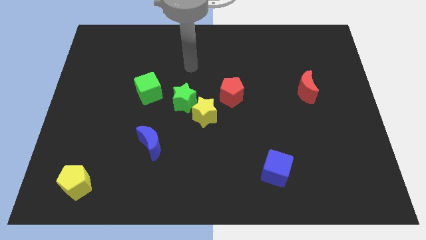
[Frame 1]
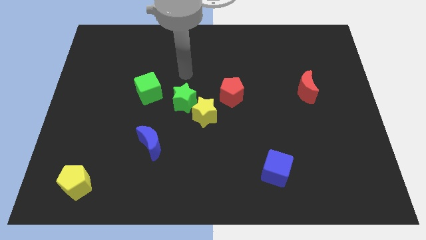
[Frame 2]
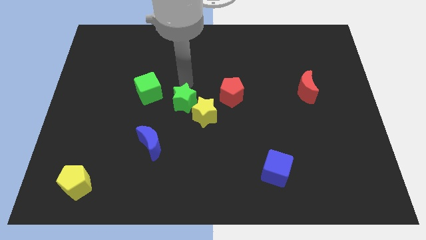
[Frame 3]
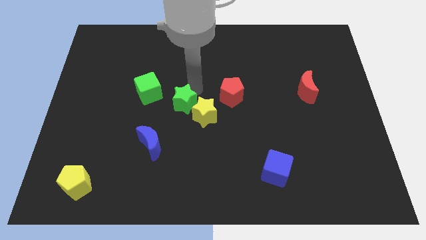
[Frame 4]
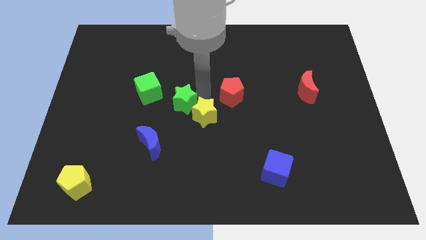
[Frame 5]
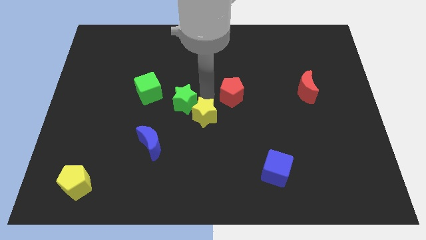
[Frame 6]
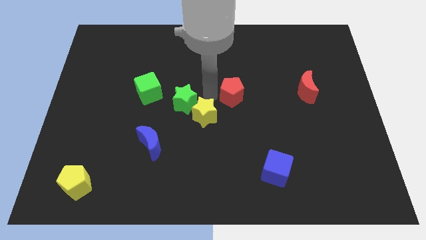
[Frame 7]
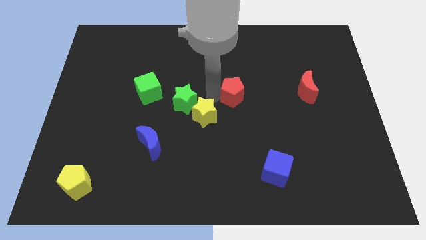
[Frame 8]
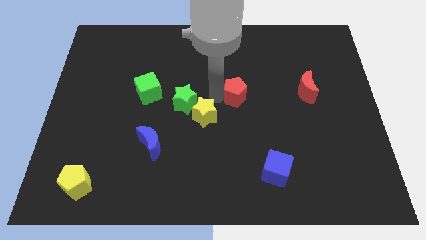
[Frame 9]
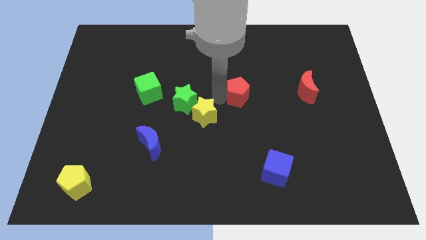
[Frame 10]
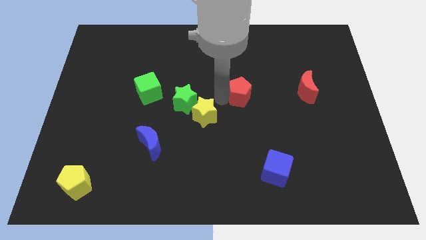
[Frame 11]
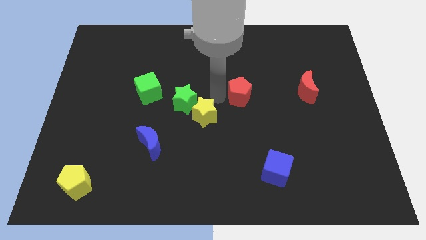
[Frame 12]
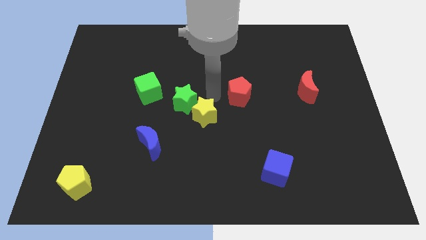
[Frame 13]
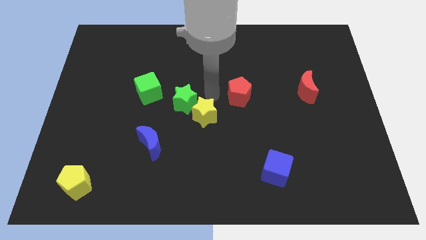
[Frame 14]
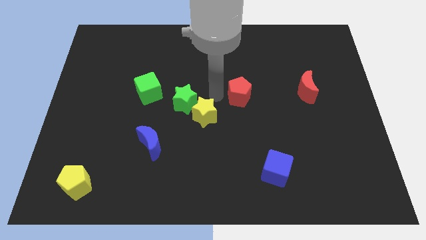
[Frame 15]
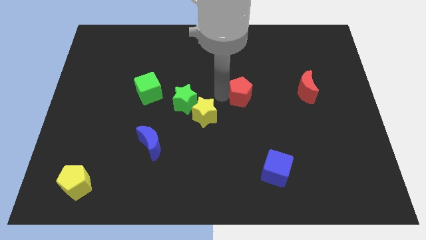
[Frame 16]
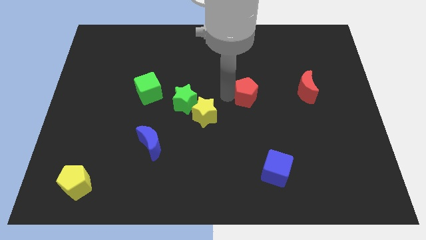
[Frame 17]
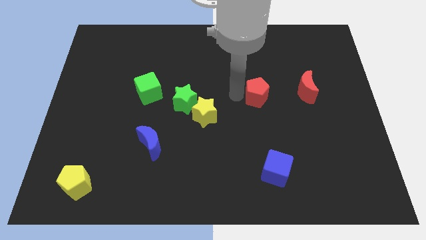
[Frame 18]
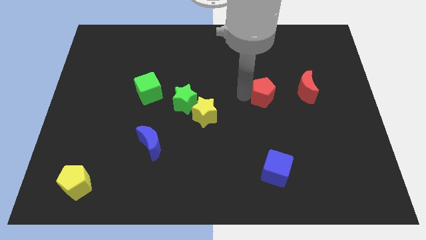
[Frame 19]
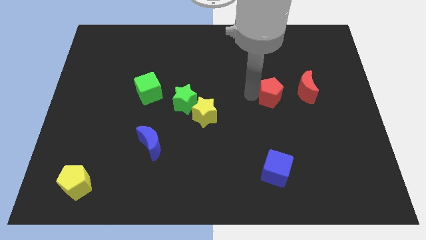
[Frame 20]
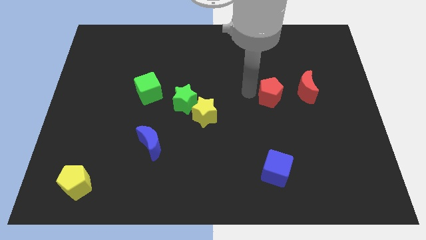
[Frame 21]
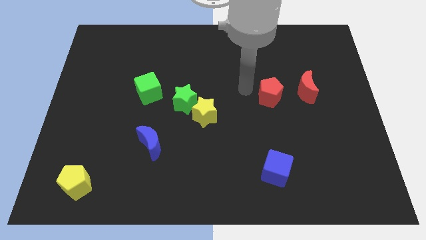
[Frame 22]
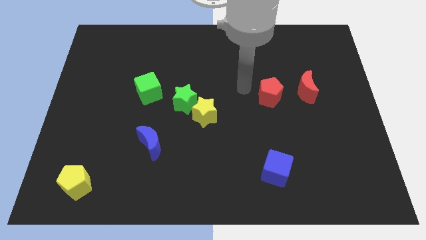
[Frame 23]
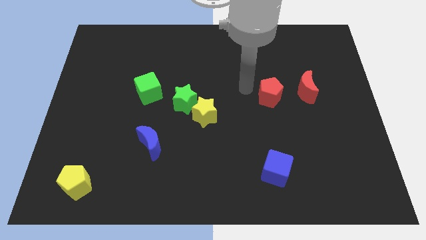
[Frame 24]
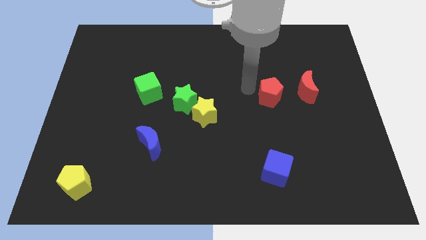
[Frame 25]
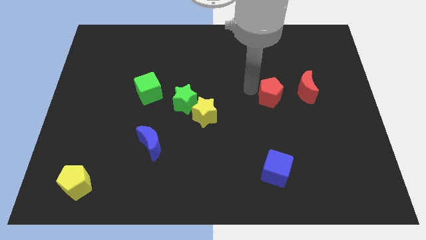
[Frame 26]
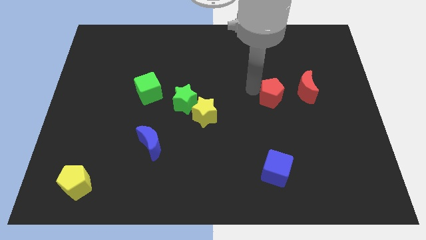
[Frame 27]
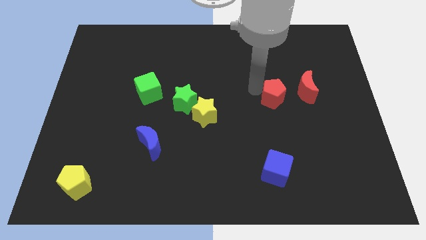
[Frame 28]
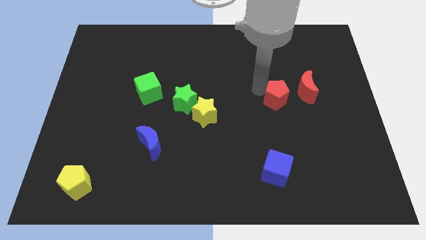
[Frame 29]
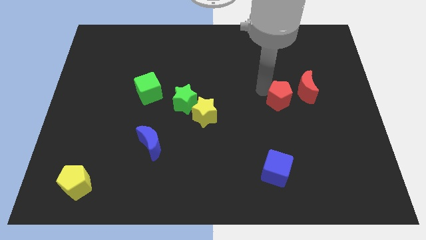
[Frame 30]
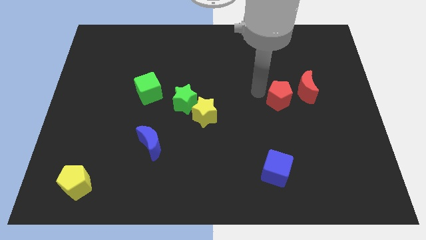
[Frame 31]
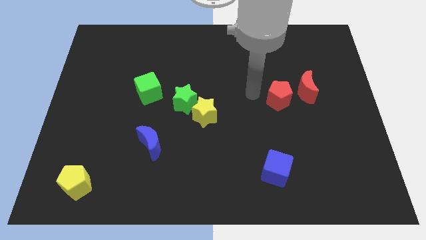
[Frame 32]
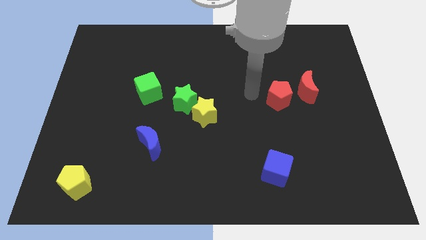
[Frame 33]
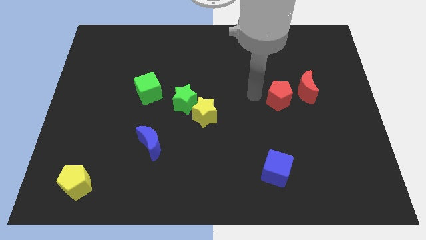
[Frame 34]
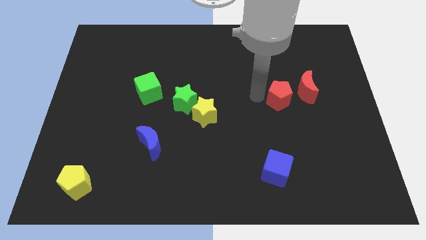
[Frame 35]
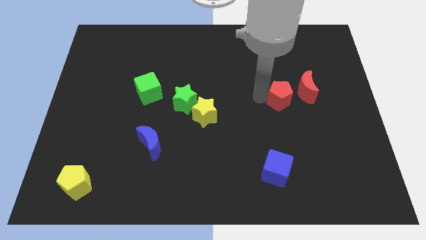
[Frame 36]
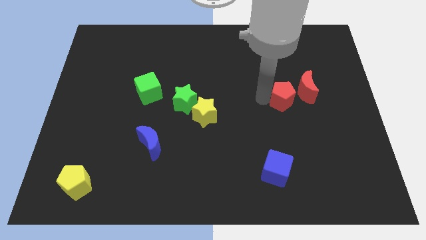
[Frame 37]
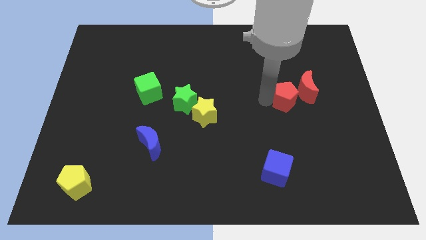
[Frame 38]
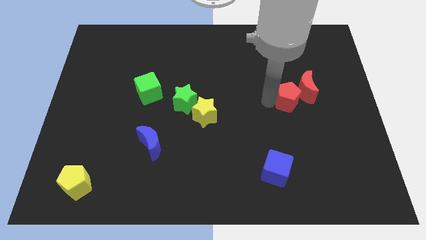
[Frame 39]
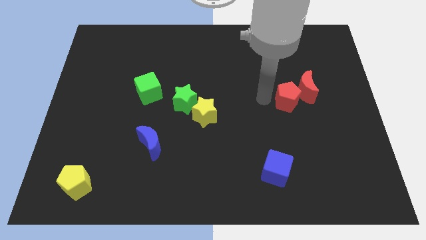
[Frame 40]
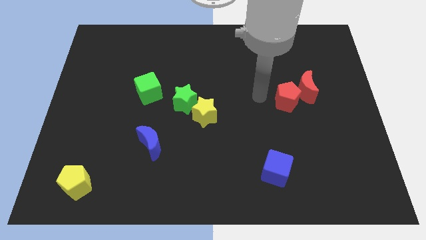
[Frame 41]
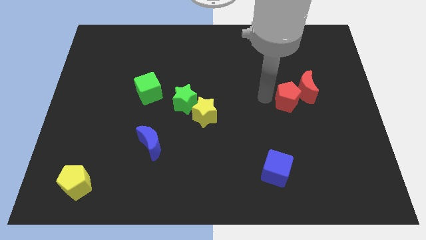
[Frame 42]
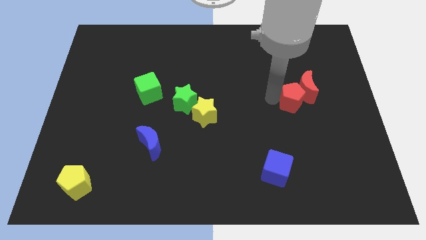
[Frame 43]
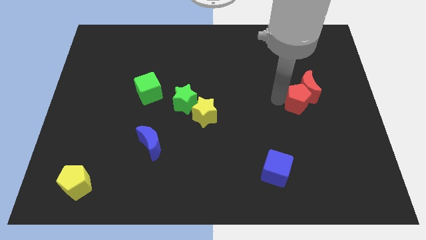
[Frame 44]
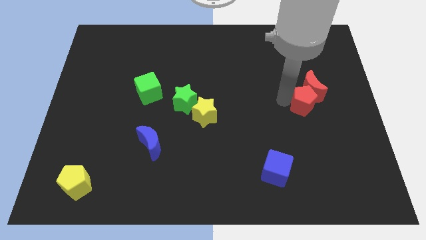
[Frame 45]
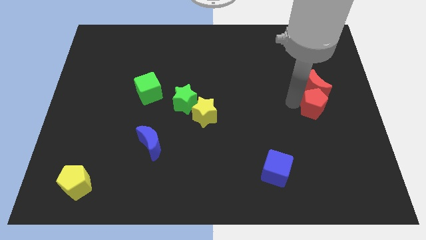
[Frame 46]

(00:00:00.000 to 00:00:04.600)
push the red pentagon to the bottom right side of the red moon

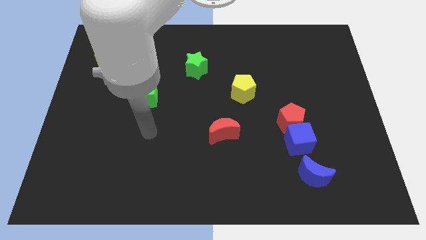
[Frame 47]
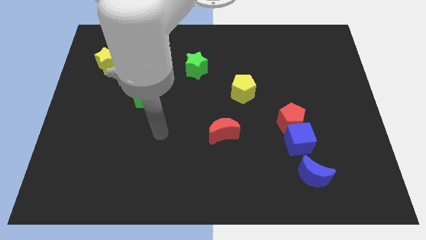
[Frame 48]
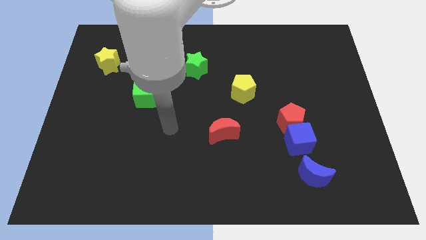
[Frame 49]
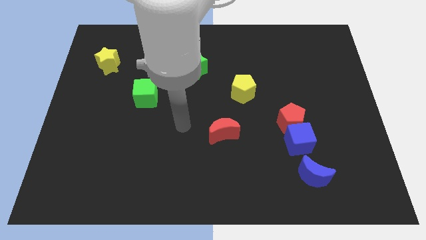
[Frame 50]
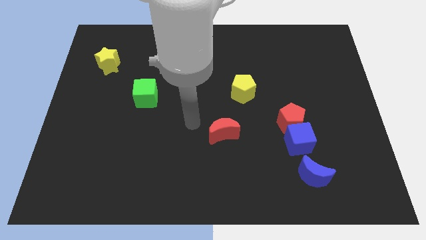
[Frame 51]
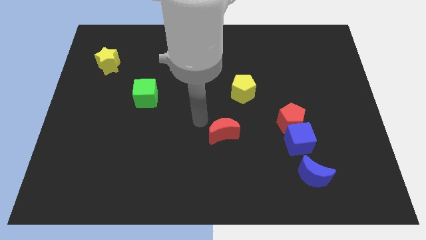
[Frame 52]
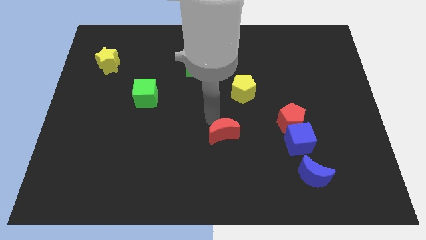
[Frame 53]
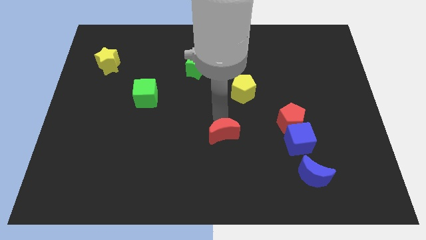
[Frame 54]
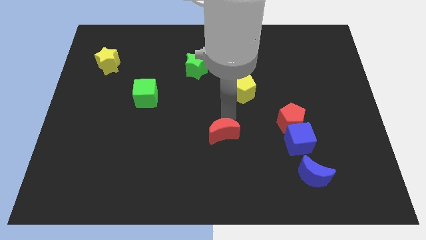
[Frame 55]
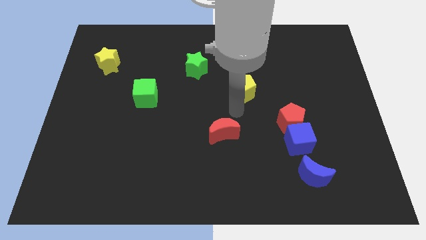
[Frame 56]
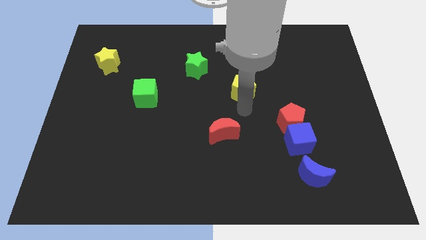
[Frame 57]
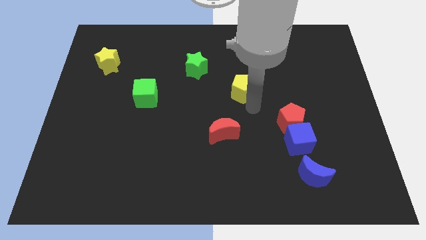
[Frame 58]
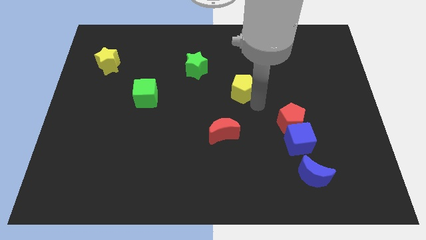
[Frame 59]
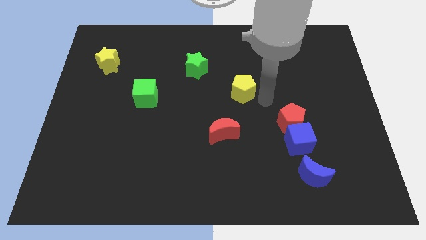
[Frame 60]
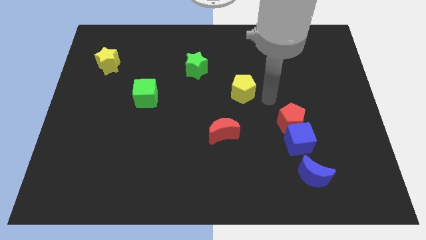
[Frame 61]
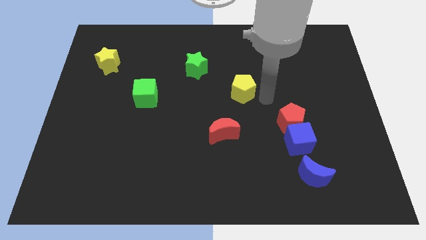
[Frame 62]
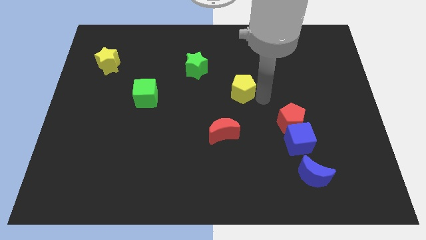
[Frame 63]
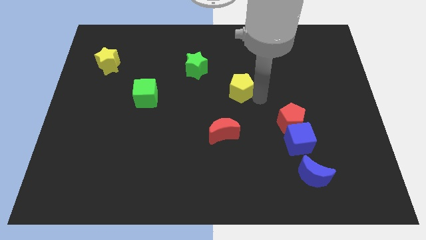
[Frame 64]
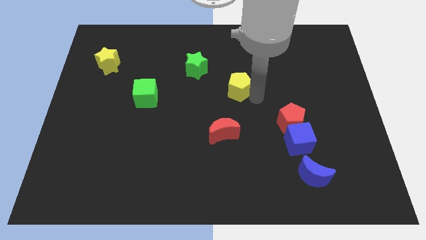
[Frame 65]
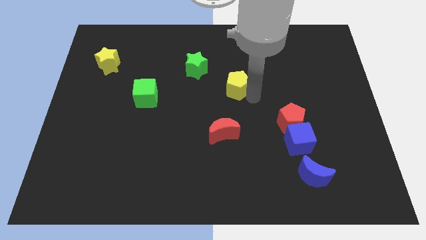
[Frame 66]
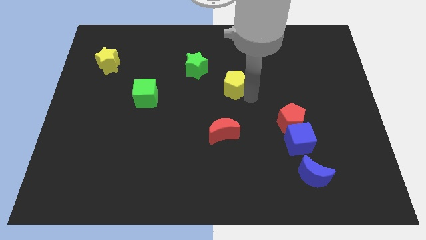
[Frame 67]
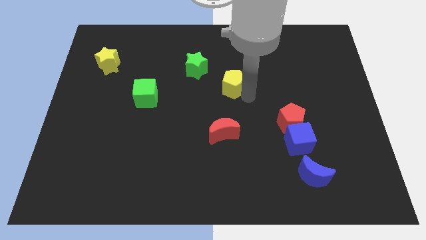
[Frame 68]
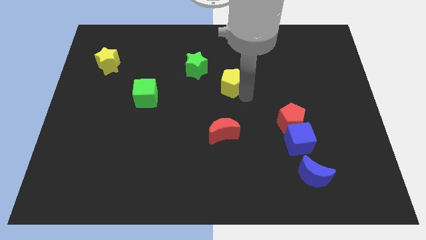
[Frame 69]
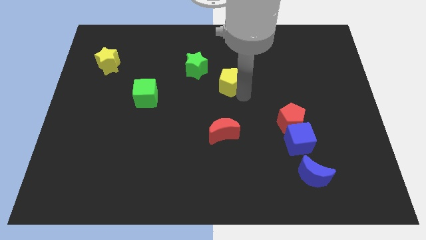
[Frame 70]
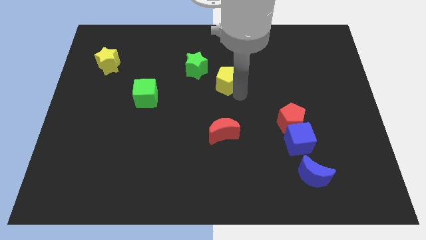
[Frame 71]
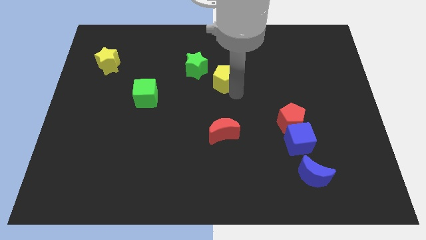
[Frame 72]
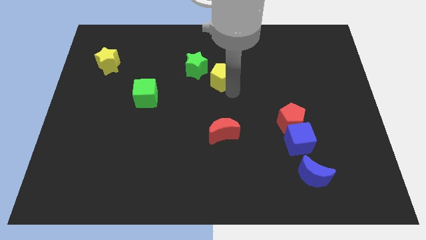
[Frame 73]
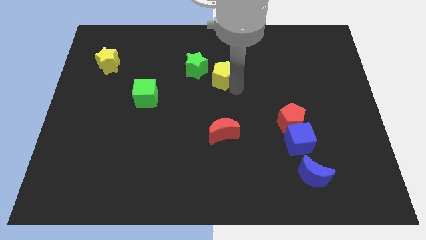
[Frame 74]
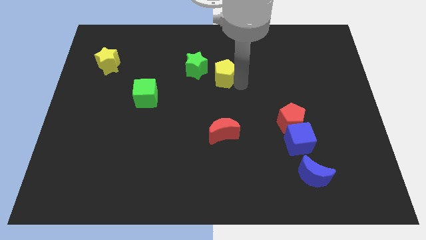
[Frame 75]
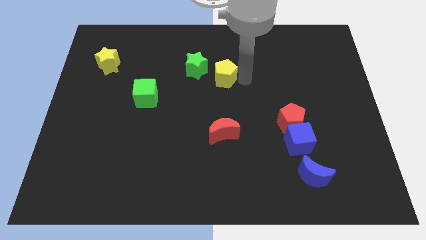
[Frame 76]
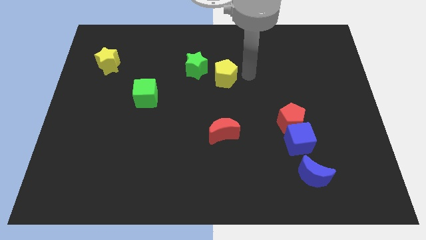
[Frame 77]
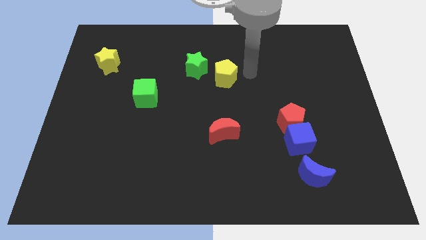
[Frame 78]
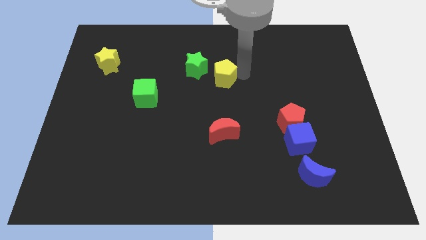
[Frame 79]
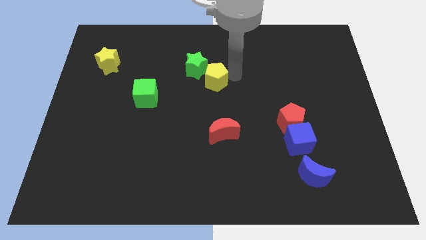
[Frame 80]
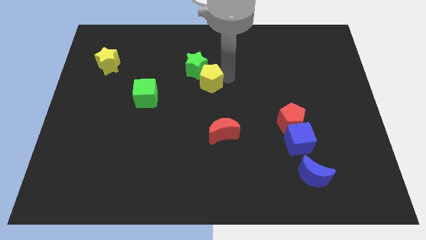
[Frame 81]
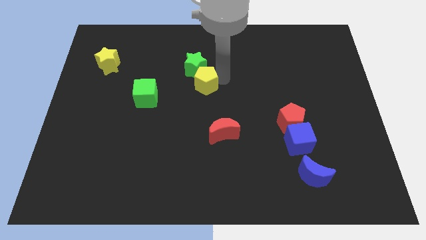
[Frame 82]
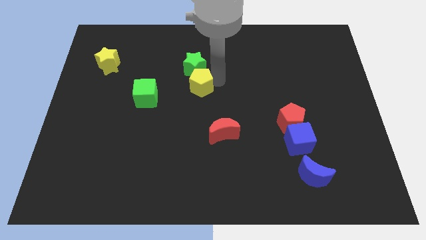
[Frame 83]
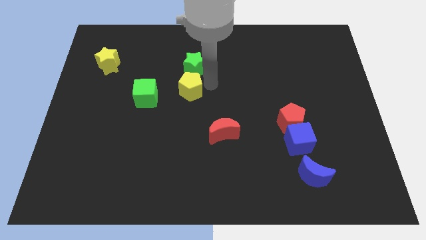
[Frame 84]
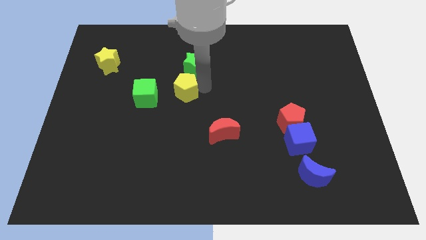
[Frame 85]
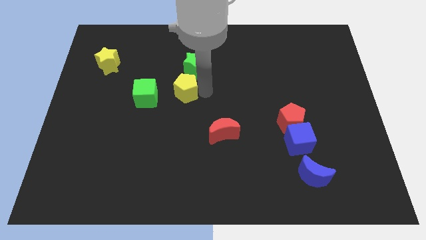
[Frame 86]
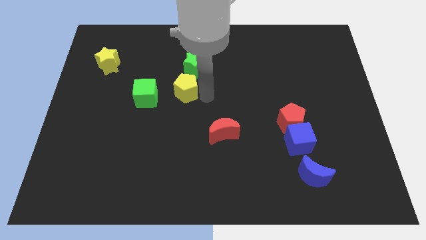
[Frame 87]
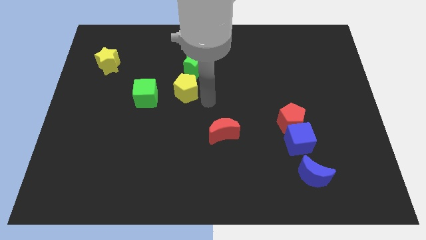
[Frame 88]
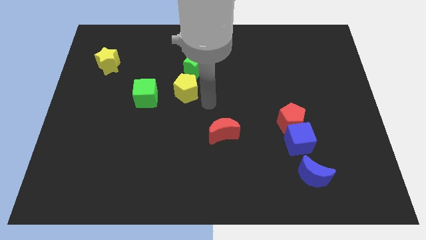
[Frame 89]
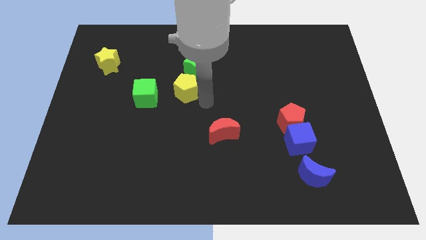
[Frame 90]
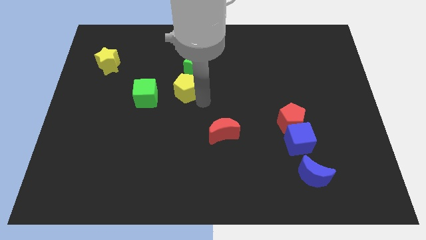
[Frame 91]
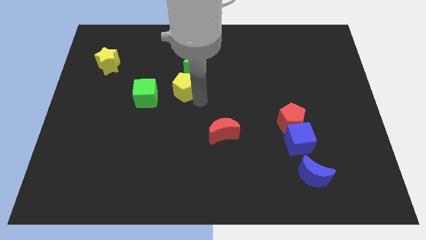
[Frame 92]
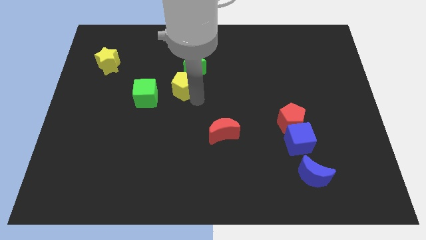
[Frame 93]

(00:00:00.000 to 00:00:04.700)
put the yellow pentagon to the top right side of the green cube
